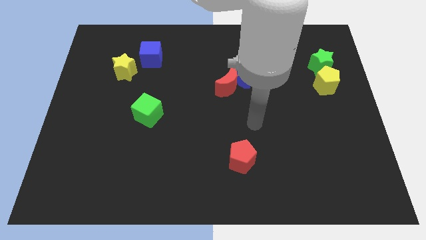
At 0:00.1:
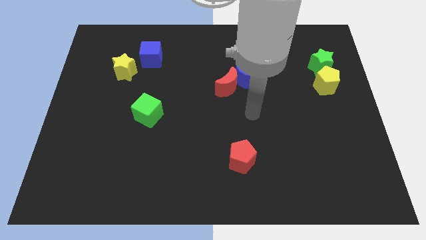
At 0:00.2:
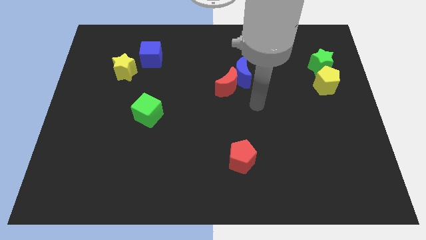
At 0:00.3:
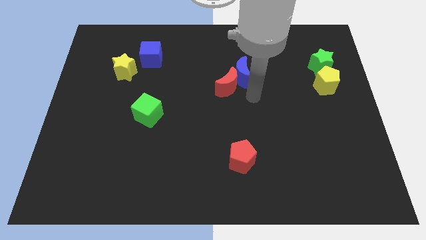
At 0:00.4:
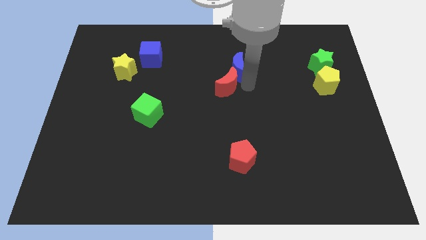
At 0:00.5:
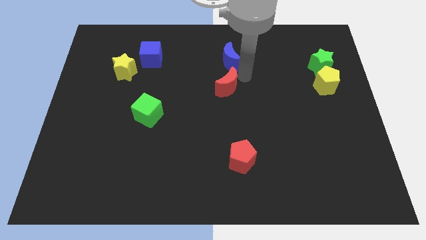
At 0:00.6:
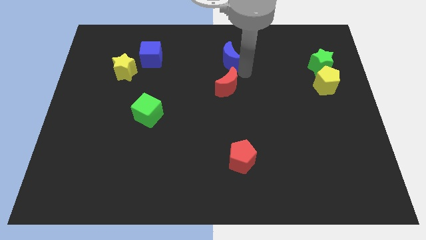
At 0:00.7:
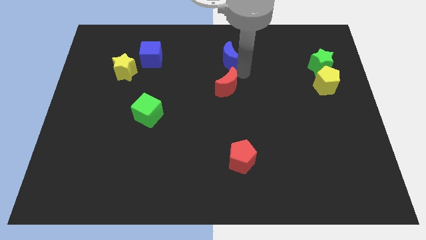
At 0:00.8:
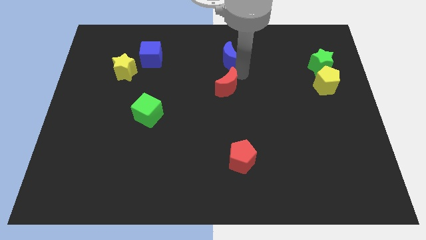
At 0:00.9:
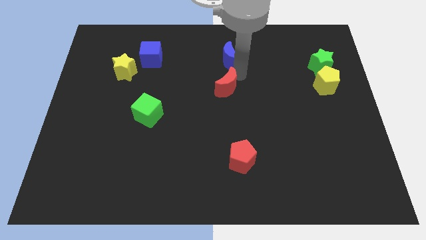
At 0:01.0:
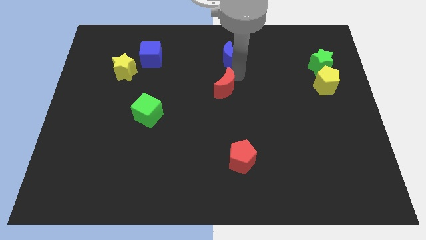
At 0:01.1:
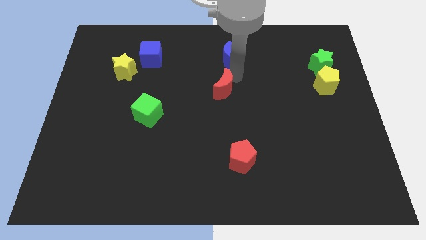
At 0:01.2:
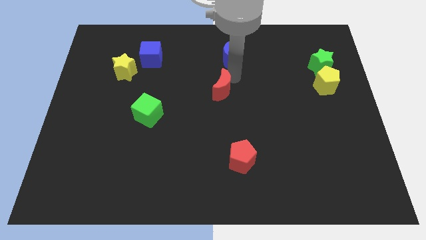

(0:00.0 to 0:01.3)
move the red moon away from the blue moon

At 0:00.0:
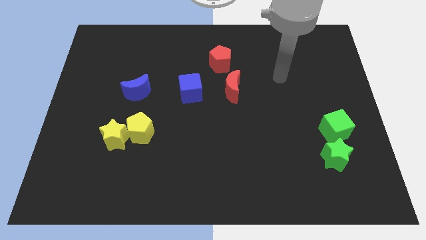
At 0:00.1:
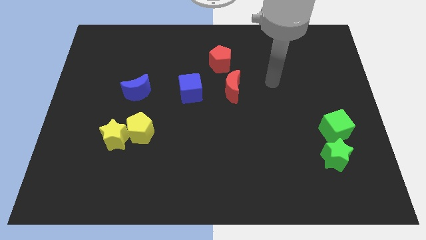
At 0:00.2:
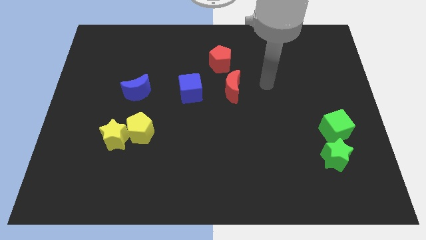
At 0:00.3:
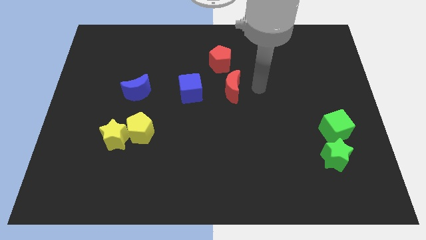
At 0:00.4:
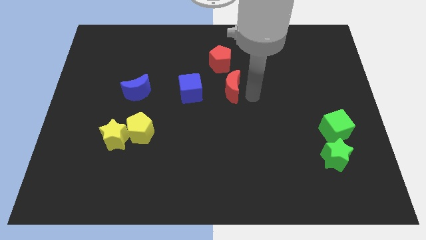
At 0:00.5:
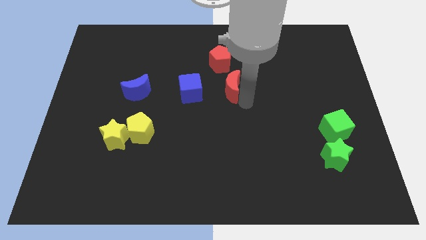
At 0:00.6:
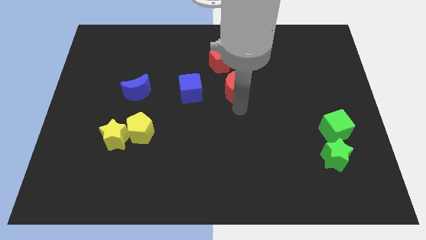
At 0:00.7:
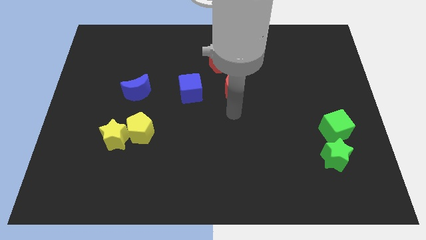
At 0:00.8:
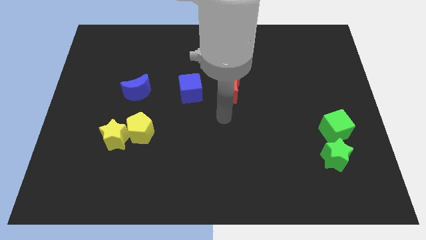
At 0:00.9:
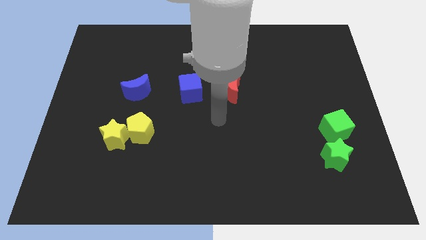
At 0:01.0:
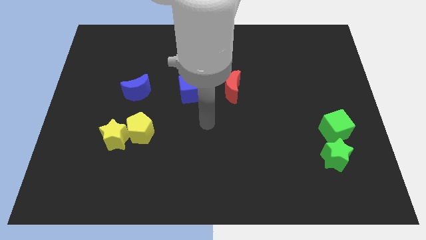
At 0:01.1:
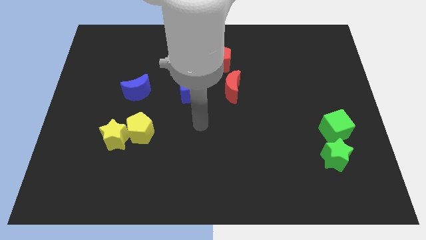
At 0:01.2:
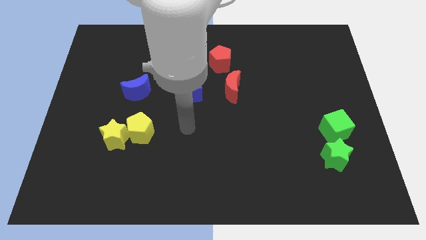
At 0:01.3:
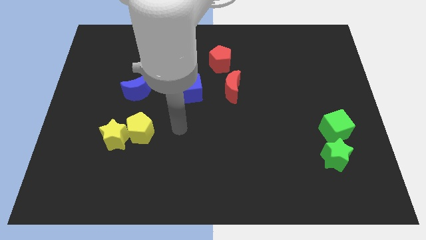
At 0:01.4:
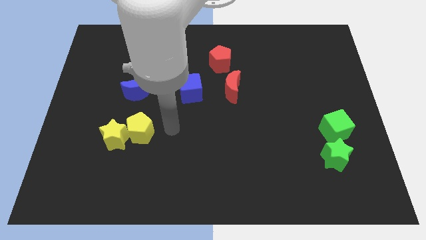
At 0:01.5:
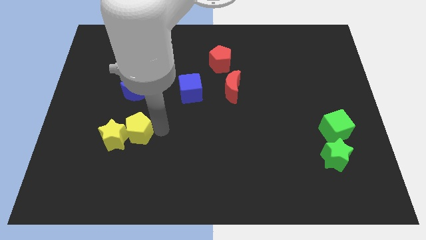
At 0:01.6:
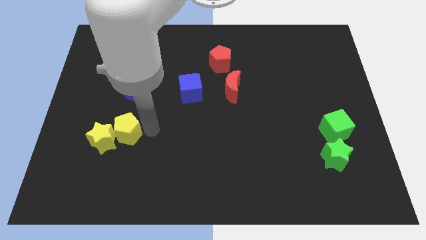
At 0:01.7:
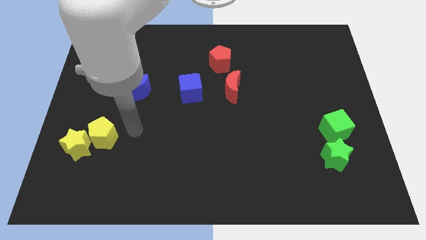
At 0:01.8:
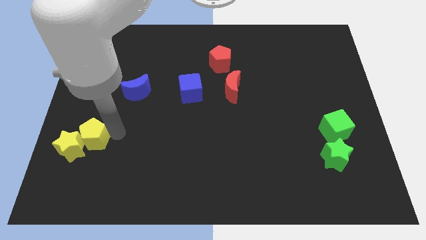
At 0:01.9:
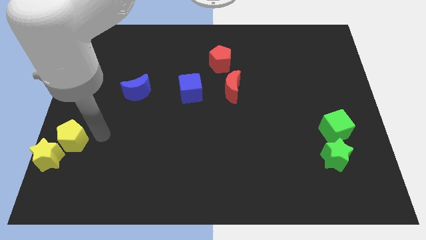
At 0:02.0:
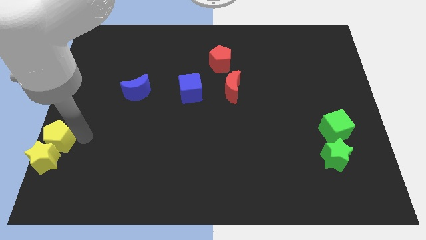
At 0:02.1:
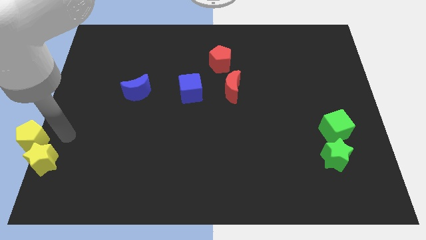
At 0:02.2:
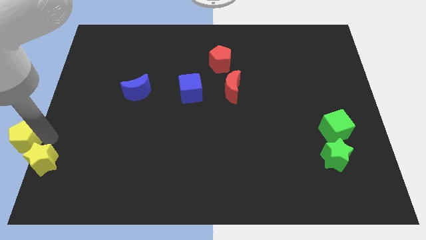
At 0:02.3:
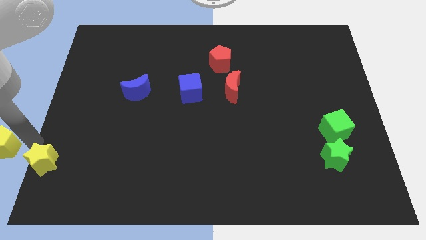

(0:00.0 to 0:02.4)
move the yellow star away from the yellow pentagon

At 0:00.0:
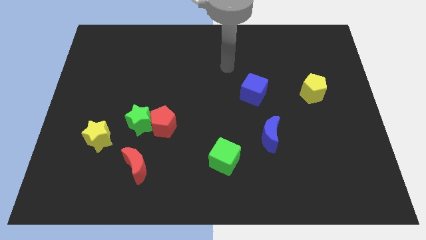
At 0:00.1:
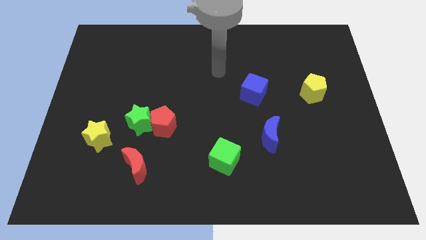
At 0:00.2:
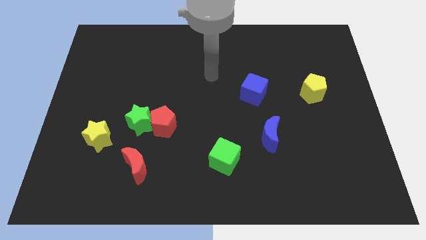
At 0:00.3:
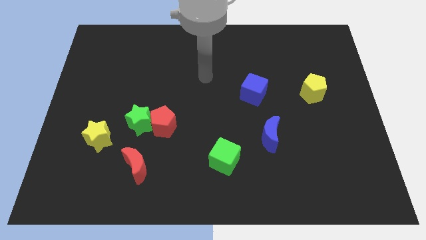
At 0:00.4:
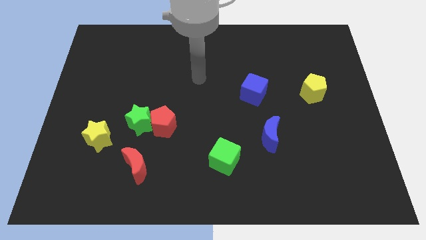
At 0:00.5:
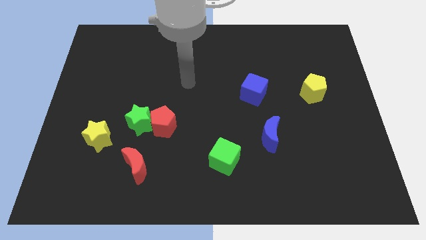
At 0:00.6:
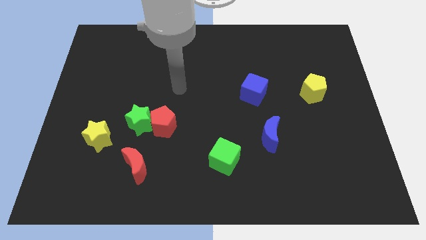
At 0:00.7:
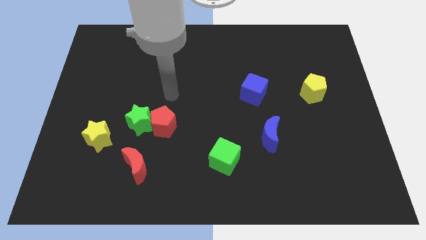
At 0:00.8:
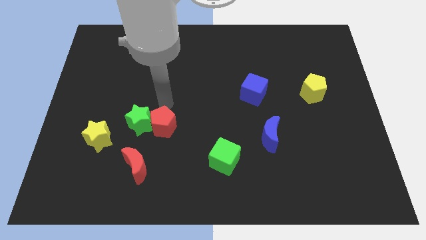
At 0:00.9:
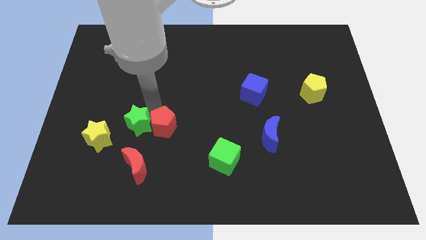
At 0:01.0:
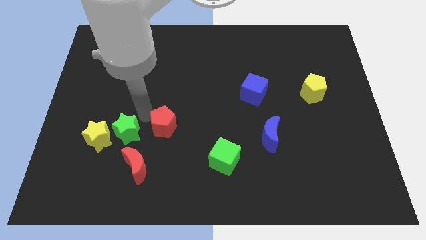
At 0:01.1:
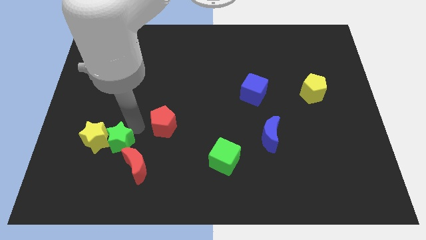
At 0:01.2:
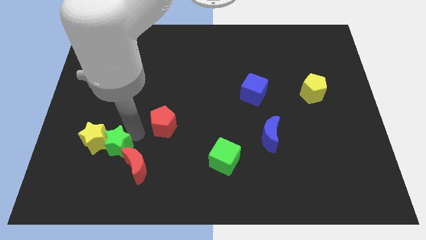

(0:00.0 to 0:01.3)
pull the red pentagon apart from the green star

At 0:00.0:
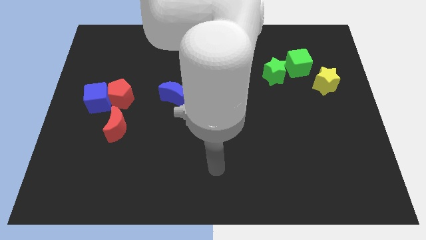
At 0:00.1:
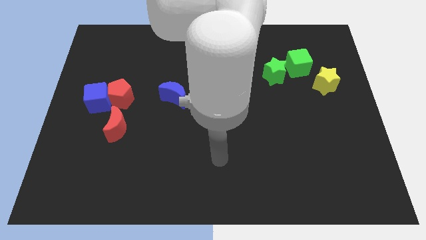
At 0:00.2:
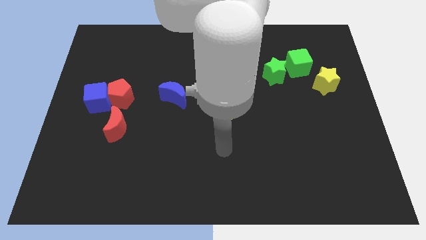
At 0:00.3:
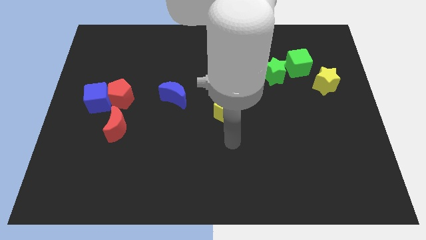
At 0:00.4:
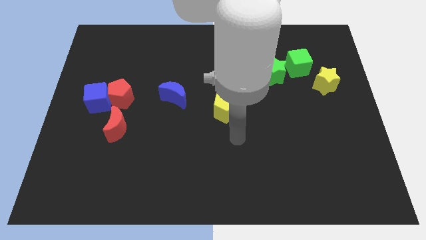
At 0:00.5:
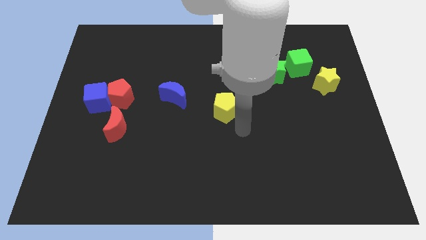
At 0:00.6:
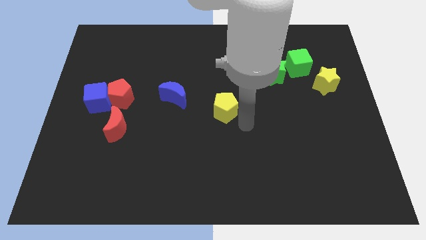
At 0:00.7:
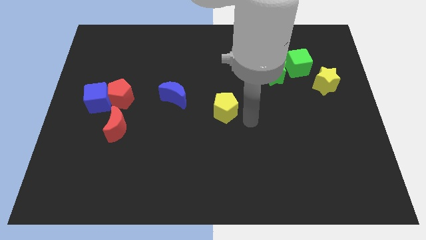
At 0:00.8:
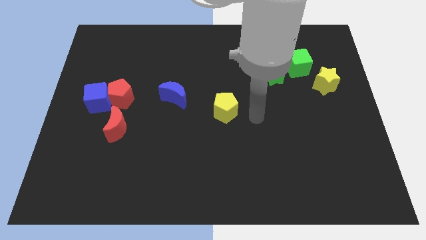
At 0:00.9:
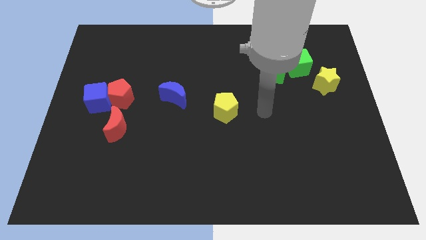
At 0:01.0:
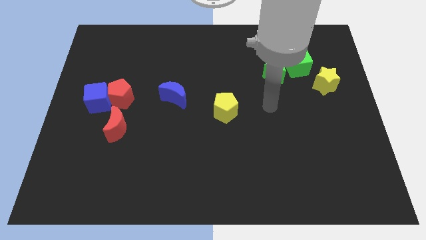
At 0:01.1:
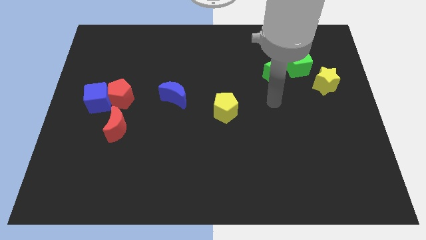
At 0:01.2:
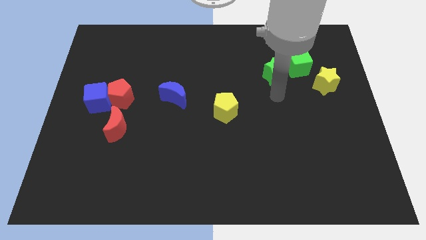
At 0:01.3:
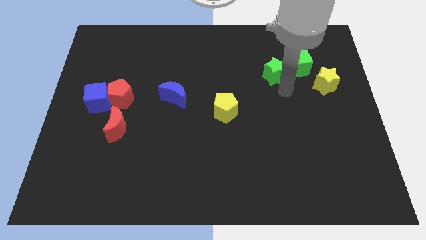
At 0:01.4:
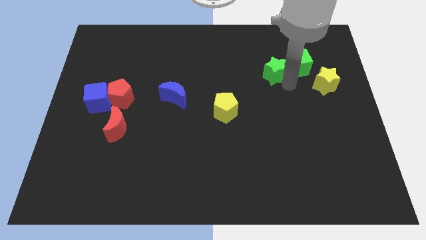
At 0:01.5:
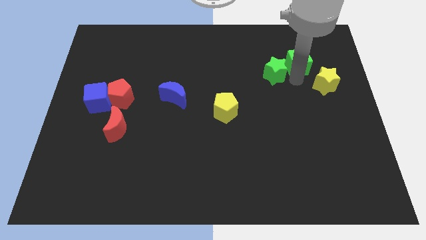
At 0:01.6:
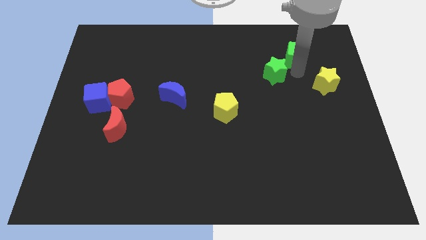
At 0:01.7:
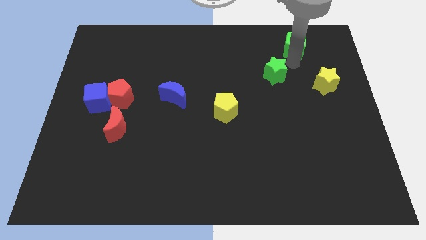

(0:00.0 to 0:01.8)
pull the green star apart from the green cube

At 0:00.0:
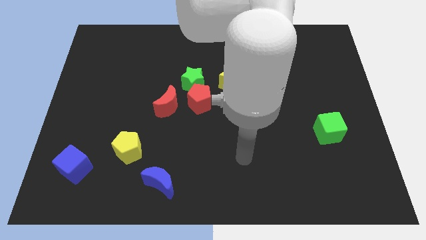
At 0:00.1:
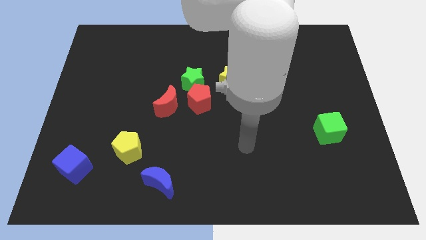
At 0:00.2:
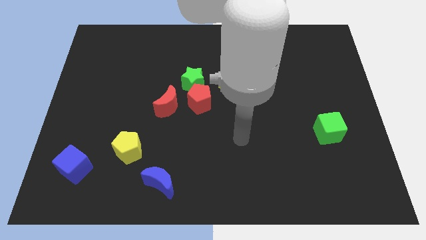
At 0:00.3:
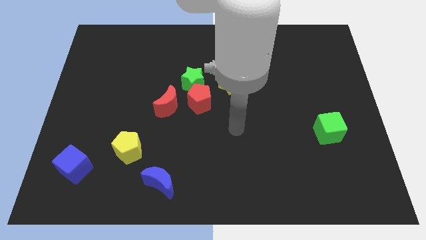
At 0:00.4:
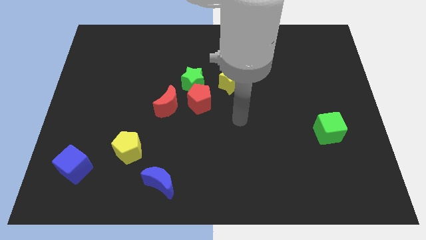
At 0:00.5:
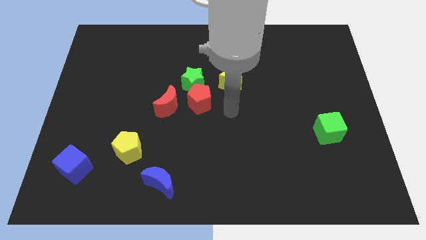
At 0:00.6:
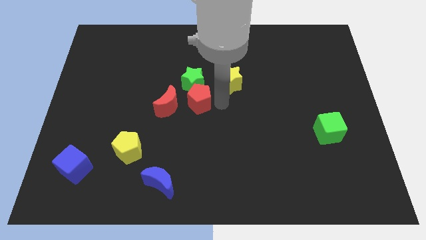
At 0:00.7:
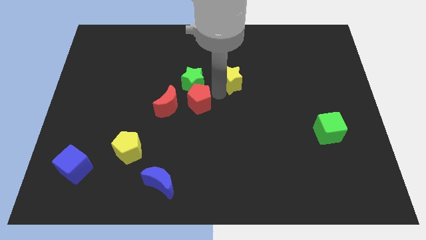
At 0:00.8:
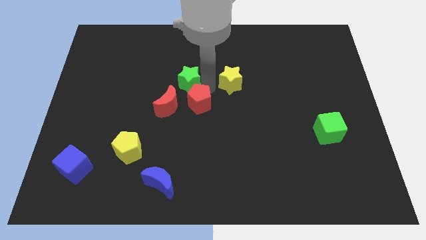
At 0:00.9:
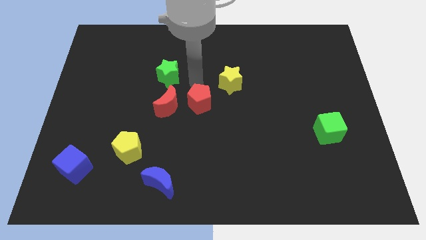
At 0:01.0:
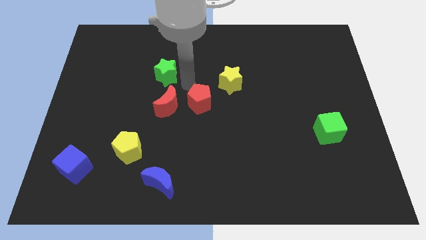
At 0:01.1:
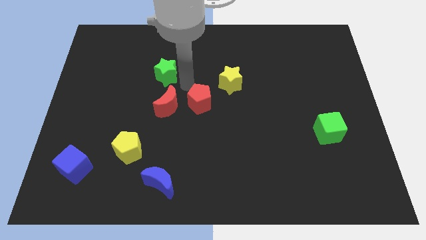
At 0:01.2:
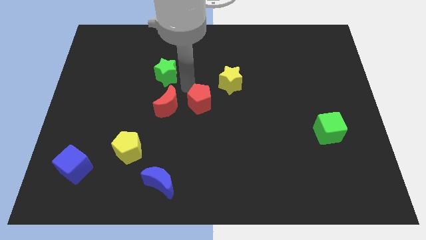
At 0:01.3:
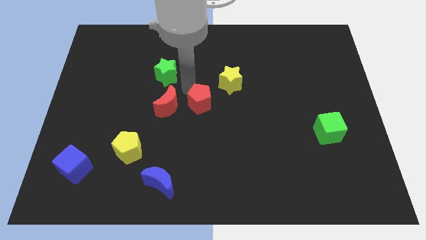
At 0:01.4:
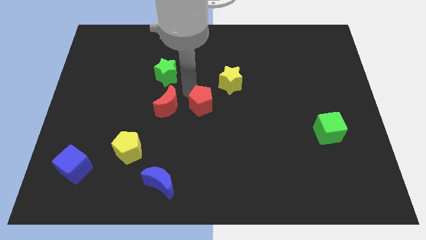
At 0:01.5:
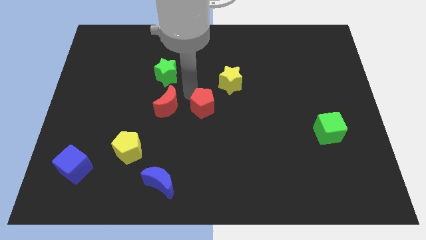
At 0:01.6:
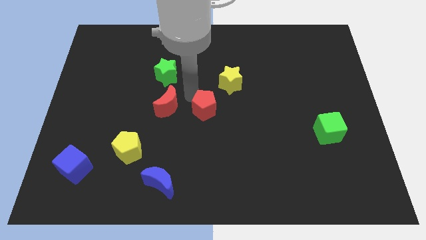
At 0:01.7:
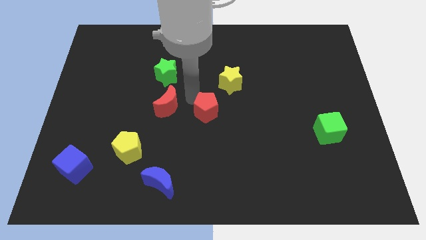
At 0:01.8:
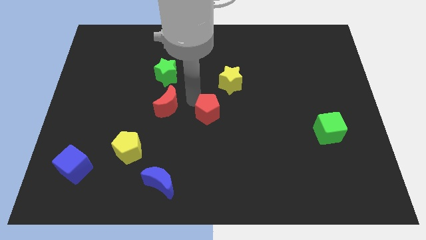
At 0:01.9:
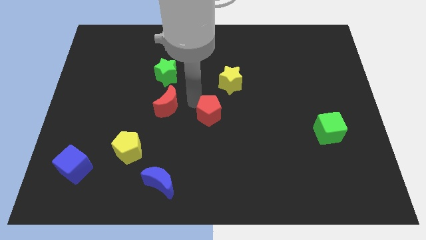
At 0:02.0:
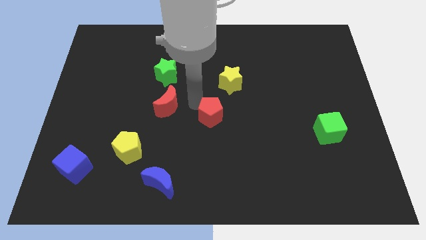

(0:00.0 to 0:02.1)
separate the red pentagon from the green star, red moon, and yellow star

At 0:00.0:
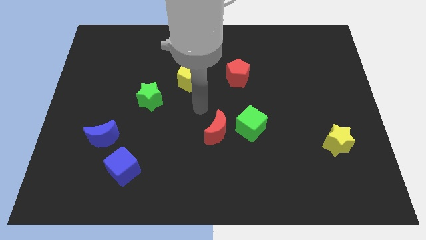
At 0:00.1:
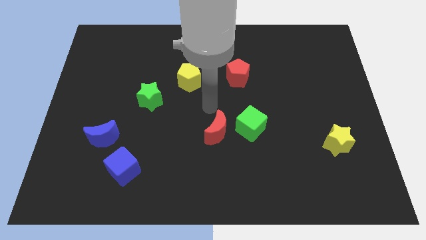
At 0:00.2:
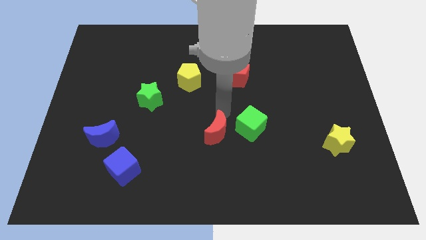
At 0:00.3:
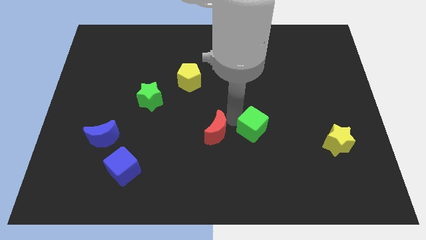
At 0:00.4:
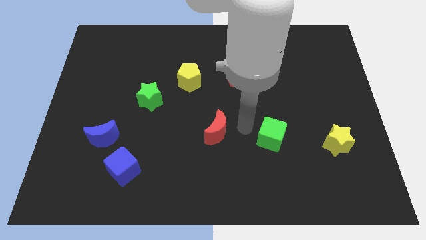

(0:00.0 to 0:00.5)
pull the red moon apart from the green cube
